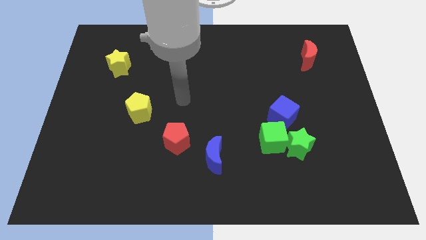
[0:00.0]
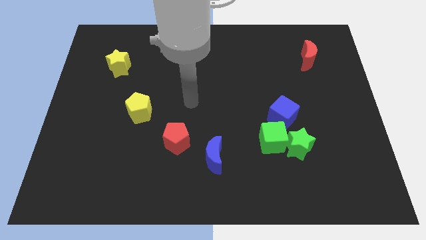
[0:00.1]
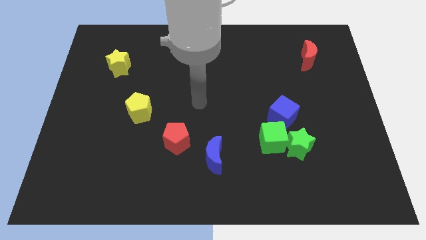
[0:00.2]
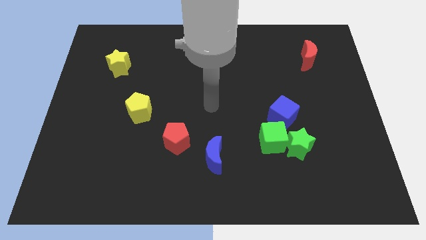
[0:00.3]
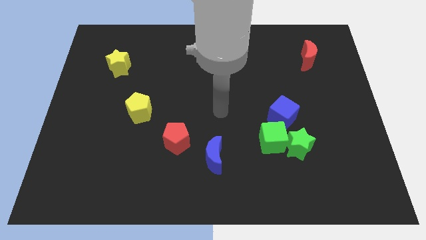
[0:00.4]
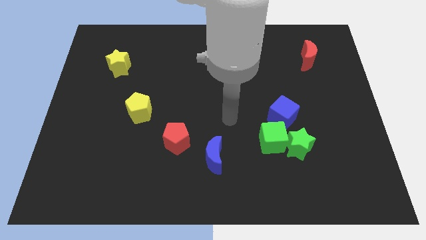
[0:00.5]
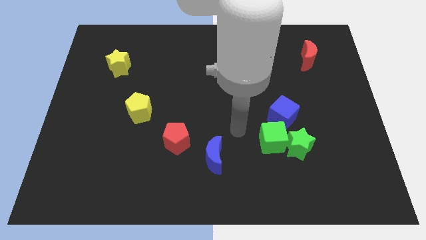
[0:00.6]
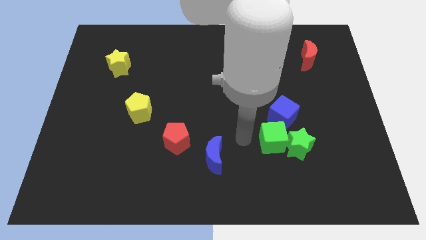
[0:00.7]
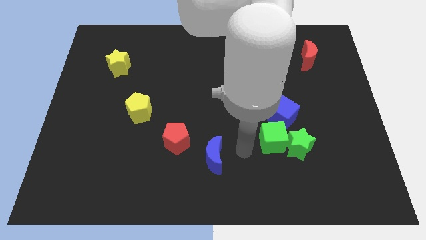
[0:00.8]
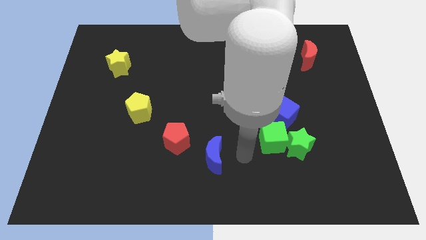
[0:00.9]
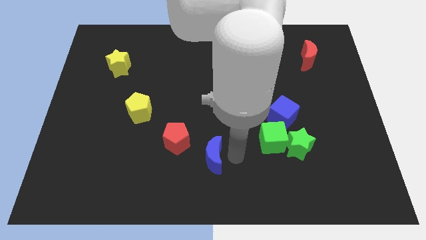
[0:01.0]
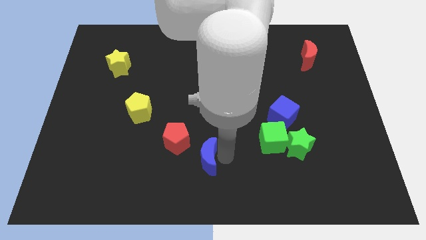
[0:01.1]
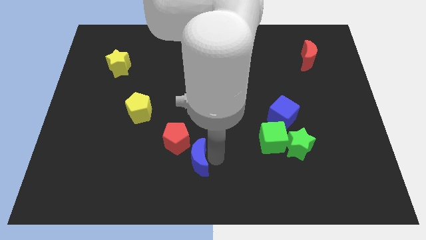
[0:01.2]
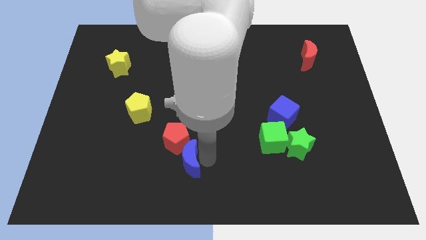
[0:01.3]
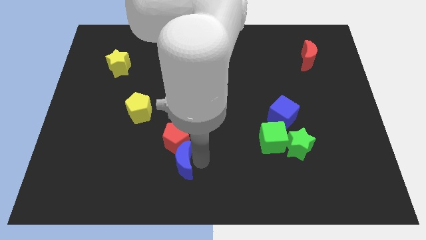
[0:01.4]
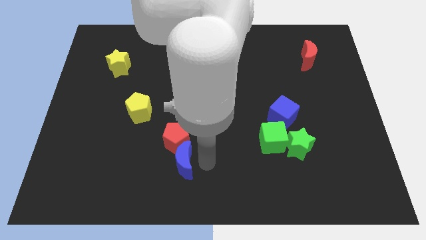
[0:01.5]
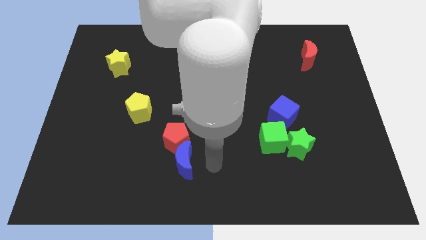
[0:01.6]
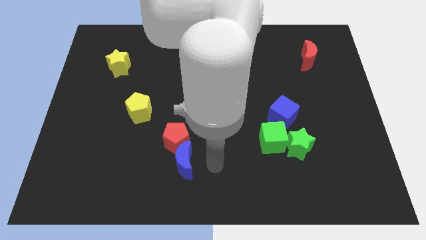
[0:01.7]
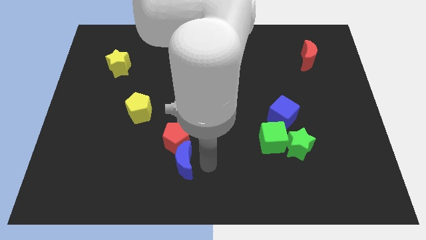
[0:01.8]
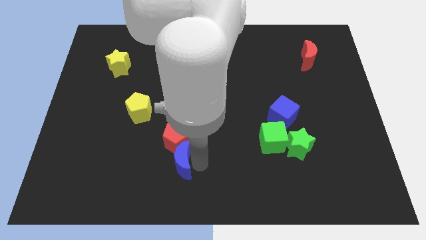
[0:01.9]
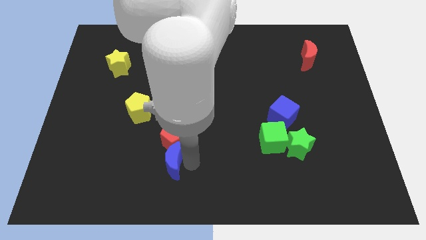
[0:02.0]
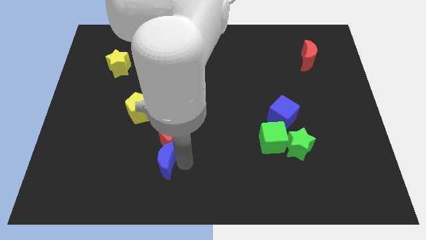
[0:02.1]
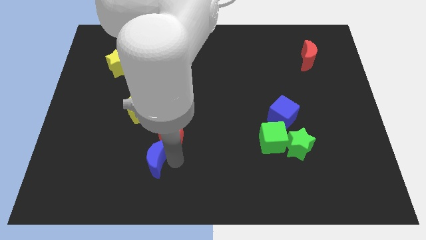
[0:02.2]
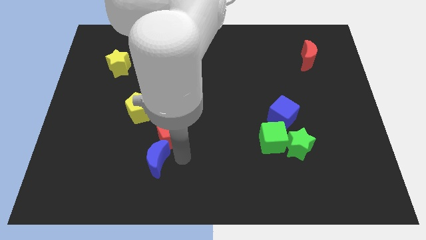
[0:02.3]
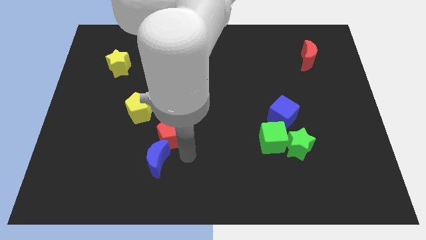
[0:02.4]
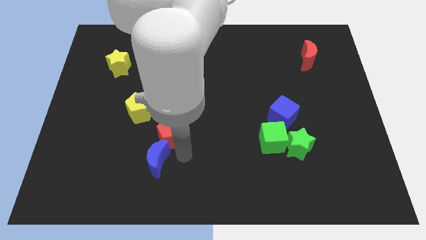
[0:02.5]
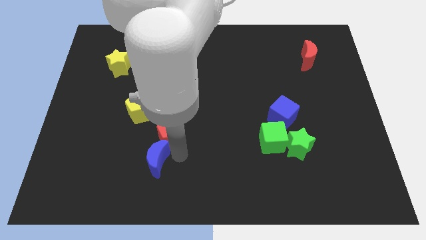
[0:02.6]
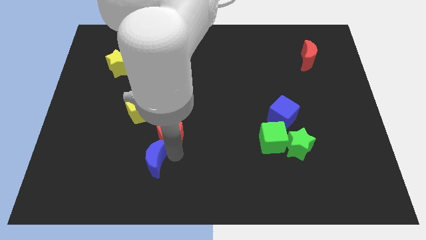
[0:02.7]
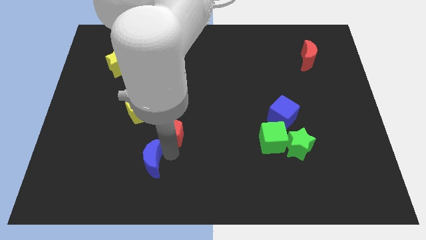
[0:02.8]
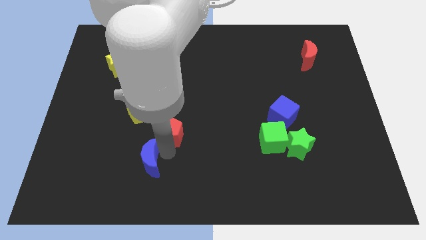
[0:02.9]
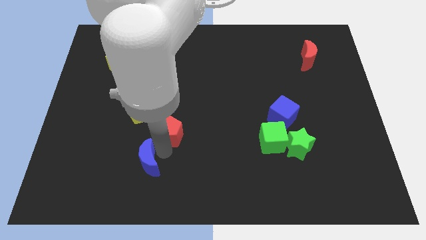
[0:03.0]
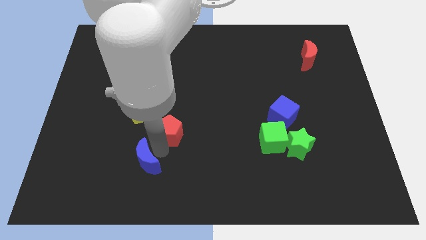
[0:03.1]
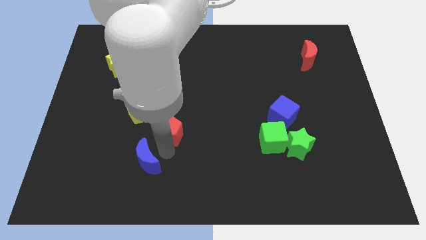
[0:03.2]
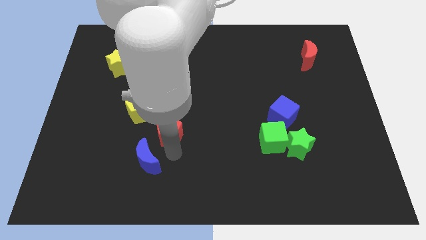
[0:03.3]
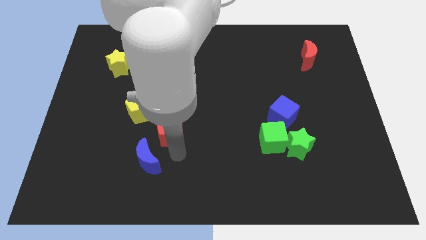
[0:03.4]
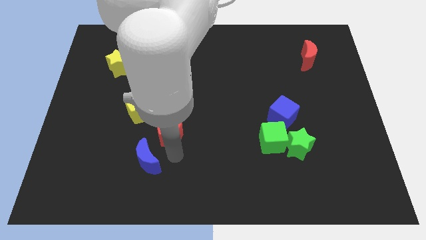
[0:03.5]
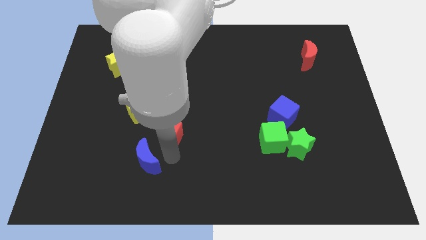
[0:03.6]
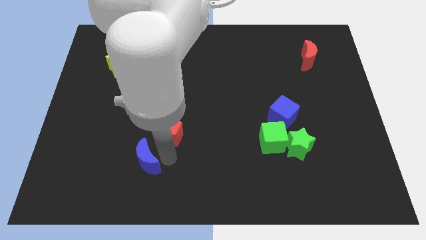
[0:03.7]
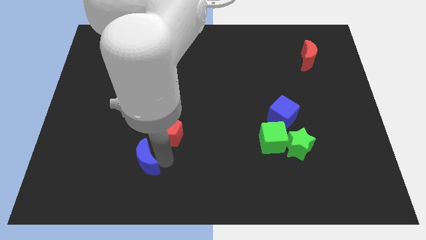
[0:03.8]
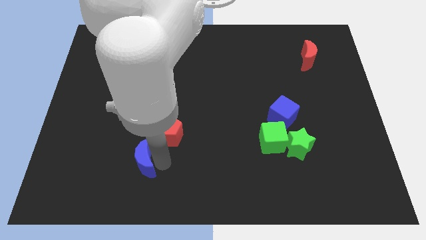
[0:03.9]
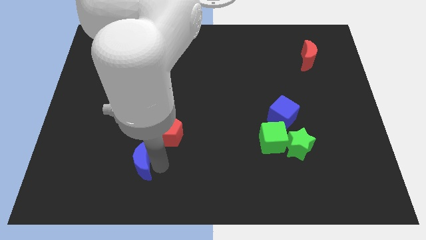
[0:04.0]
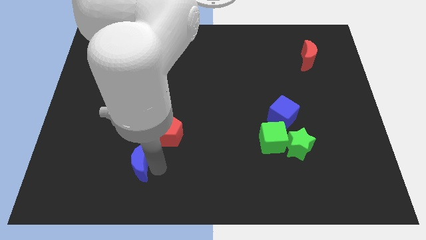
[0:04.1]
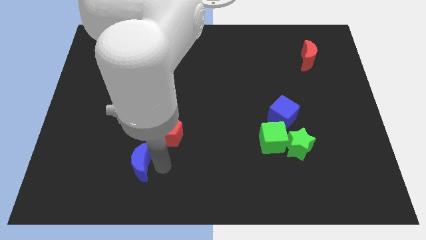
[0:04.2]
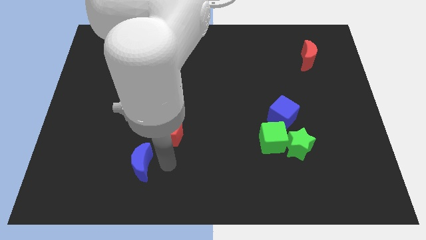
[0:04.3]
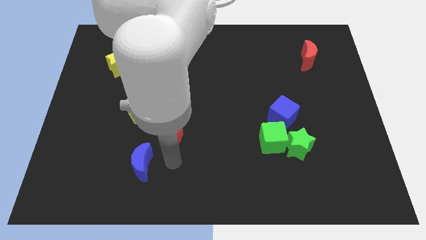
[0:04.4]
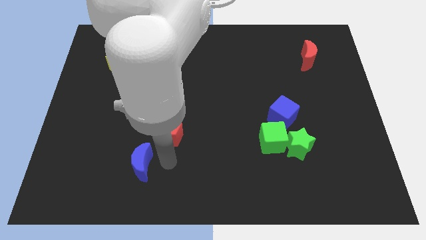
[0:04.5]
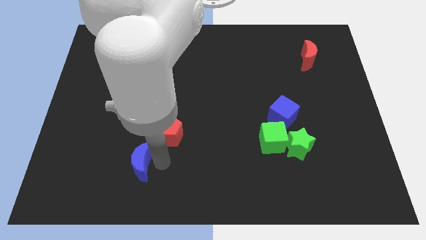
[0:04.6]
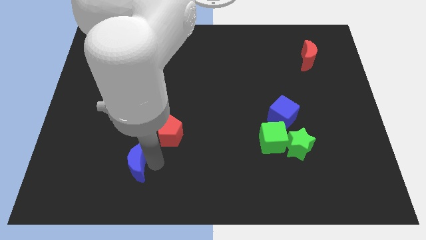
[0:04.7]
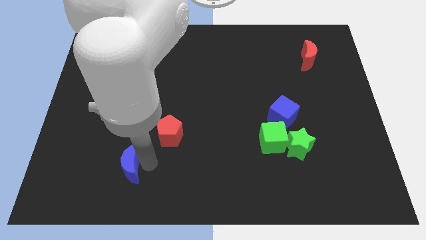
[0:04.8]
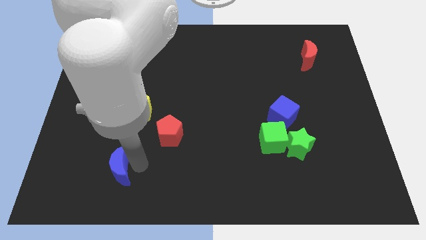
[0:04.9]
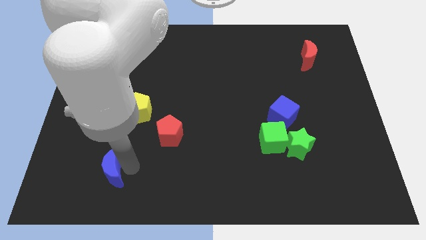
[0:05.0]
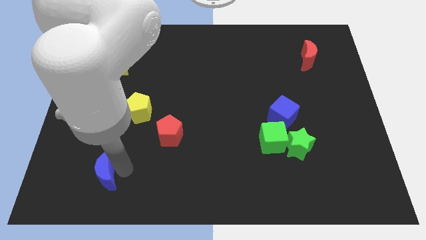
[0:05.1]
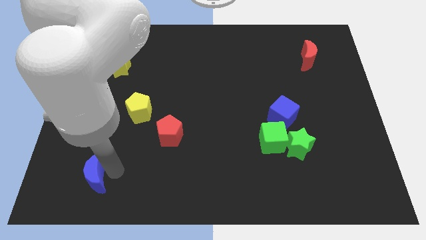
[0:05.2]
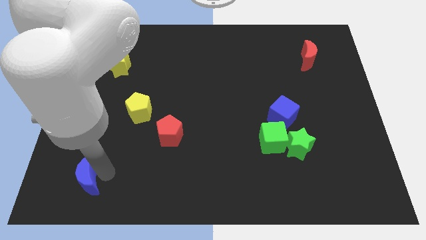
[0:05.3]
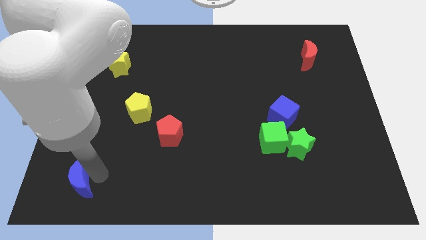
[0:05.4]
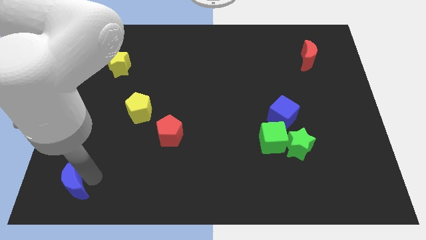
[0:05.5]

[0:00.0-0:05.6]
slide the blue moon to the bottom left
